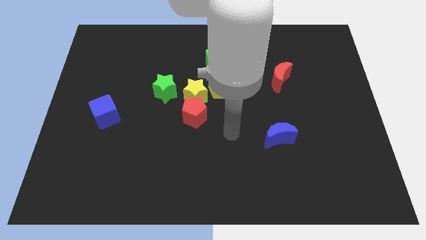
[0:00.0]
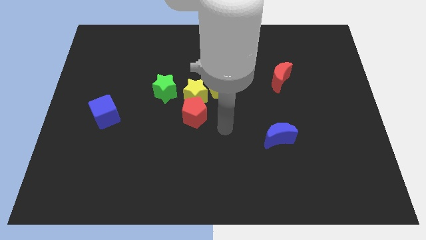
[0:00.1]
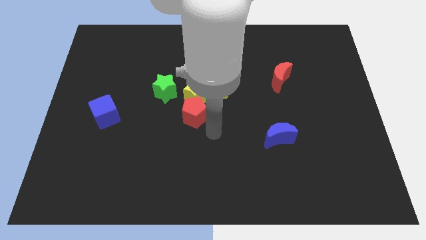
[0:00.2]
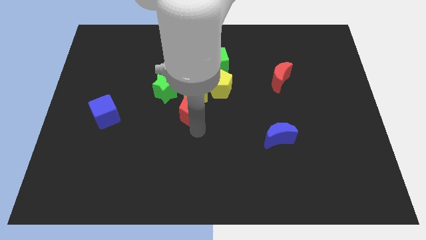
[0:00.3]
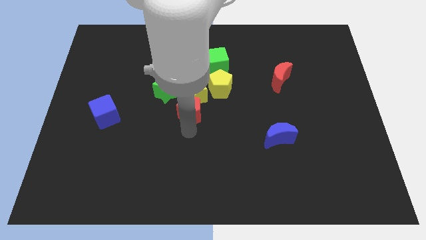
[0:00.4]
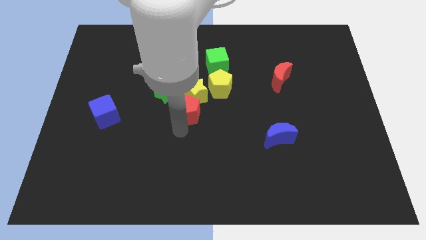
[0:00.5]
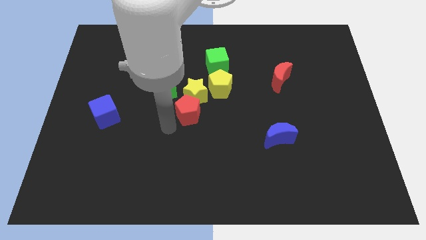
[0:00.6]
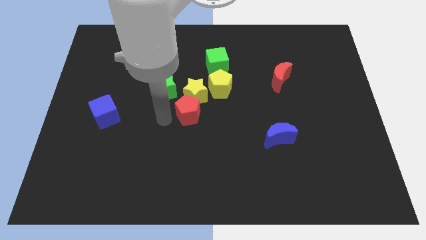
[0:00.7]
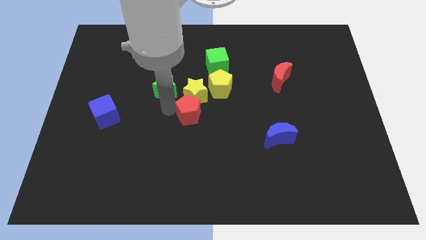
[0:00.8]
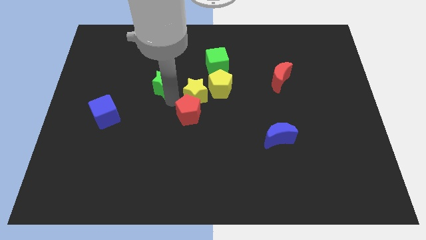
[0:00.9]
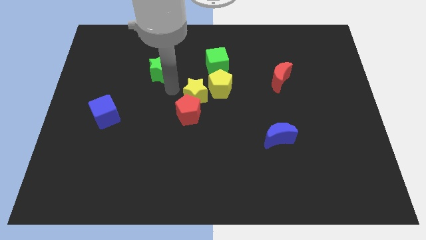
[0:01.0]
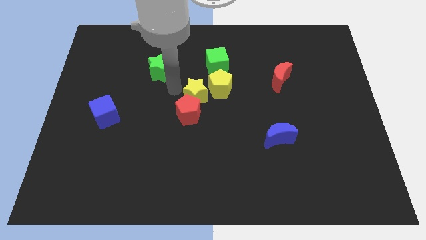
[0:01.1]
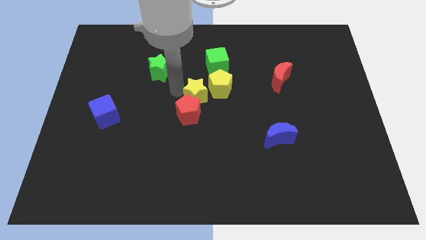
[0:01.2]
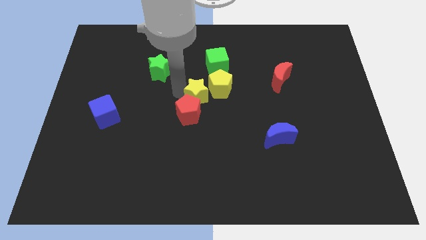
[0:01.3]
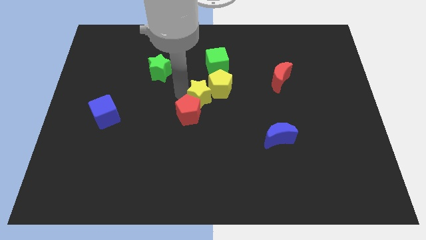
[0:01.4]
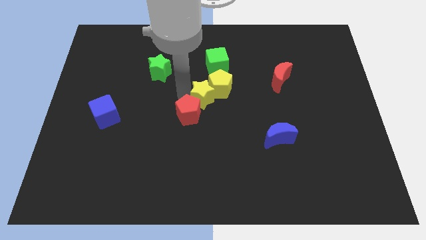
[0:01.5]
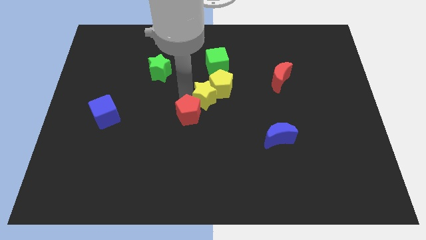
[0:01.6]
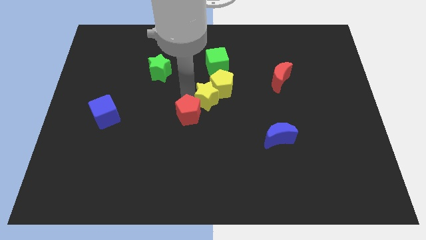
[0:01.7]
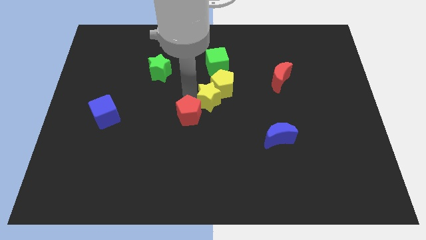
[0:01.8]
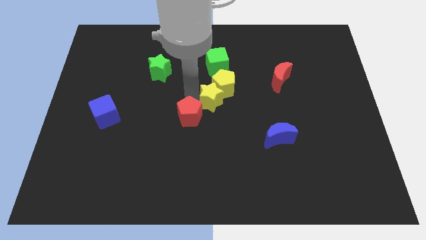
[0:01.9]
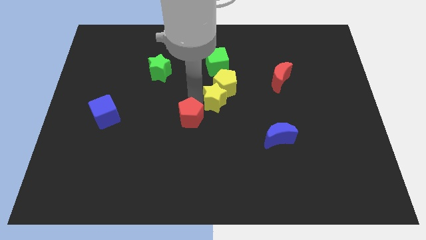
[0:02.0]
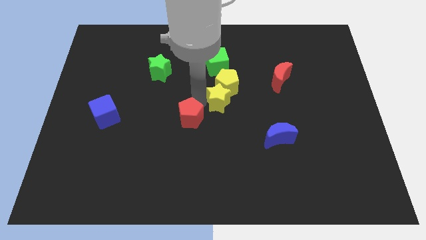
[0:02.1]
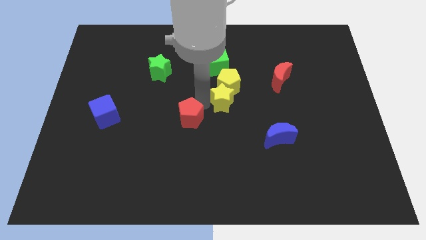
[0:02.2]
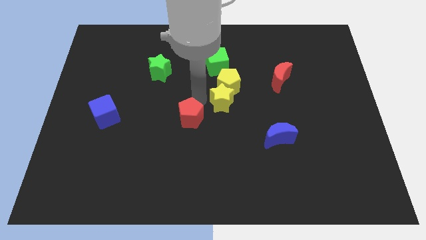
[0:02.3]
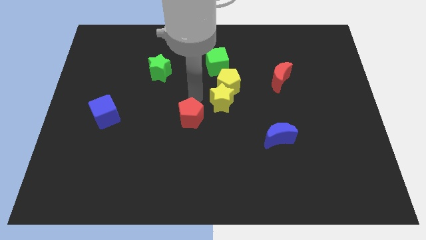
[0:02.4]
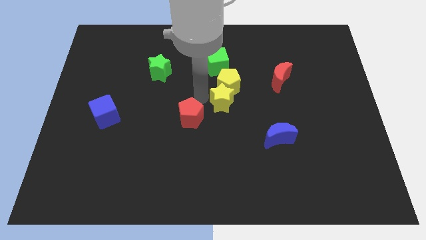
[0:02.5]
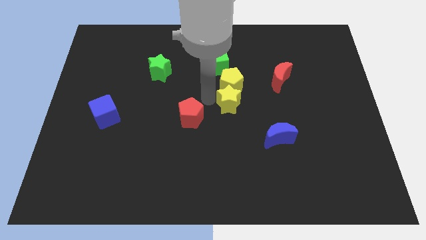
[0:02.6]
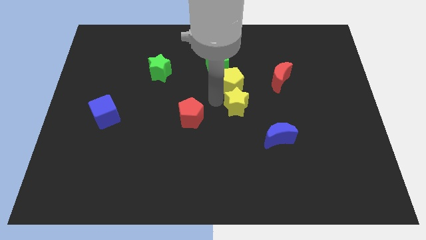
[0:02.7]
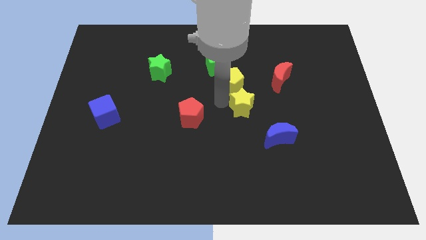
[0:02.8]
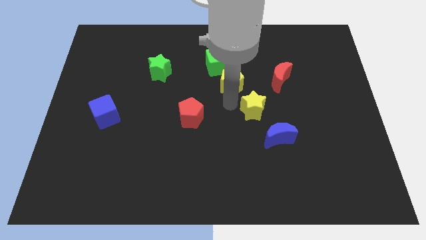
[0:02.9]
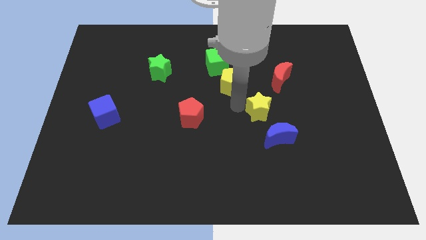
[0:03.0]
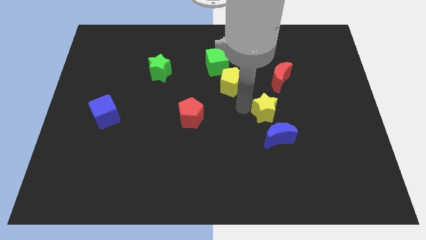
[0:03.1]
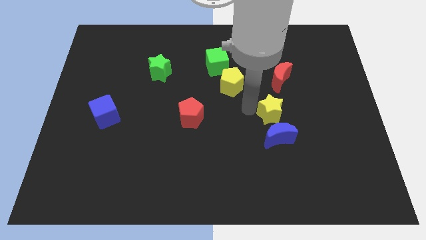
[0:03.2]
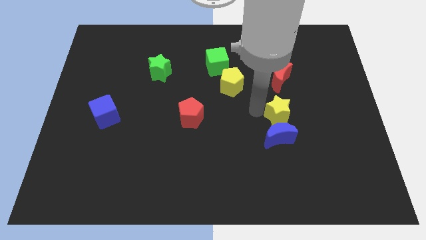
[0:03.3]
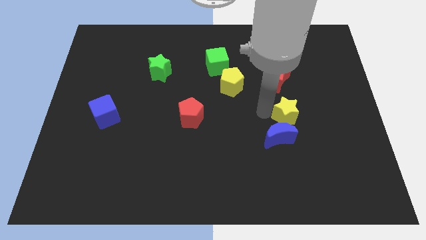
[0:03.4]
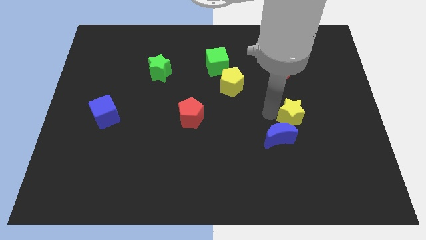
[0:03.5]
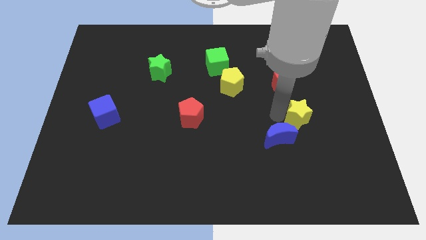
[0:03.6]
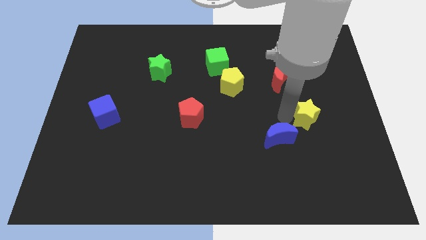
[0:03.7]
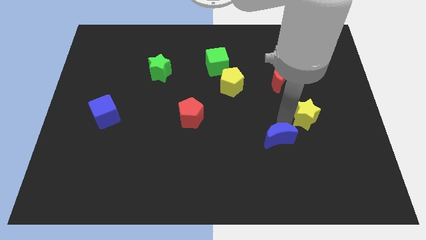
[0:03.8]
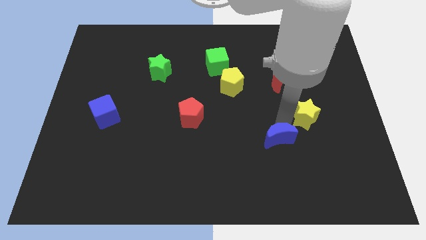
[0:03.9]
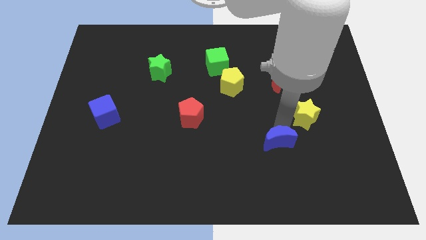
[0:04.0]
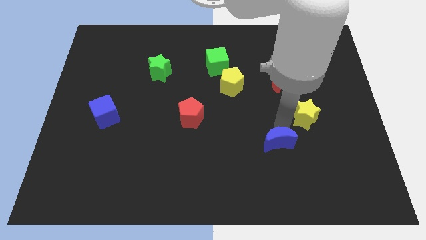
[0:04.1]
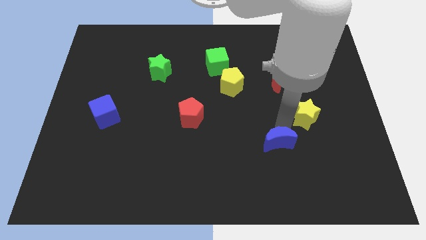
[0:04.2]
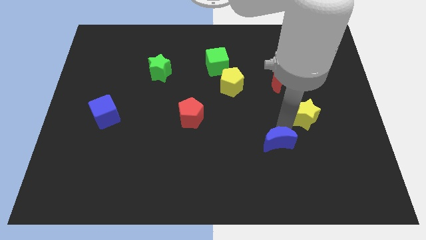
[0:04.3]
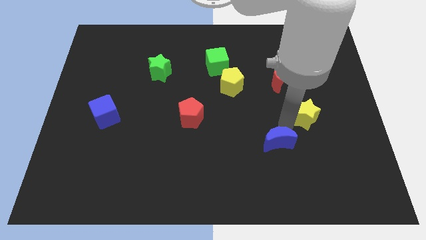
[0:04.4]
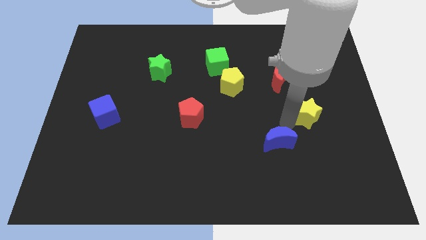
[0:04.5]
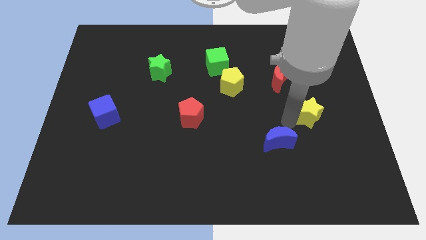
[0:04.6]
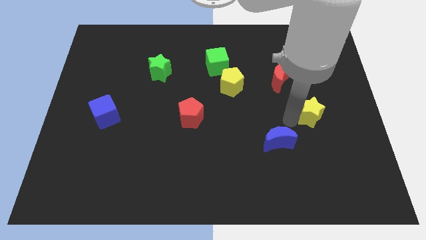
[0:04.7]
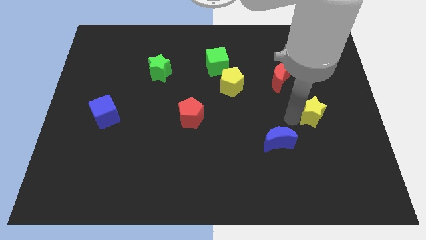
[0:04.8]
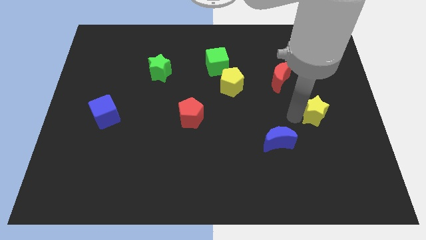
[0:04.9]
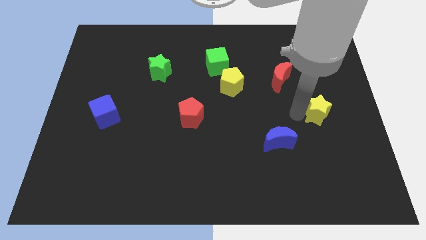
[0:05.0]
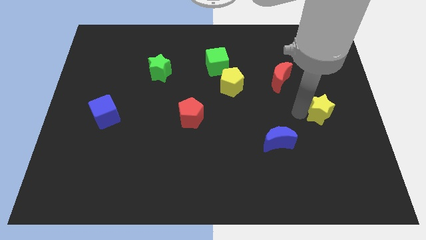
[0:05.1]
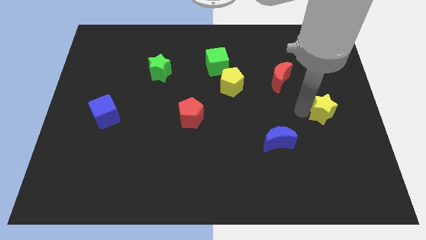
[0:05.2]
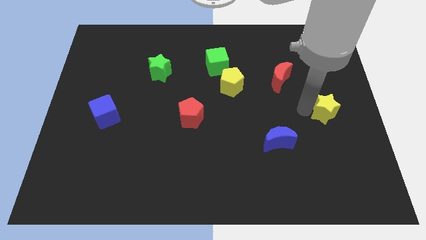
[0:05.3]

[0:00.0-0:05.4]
push the yellow star to the right side of the board

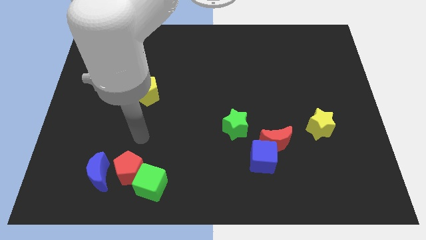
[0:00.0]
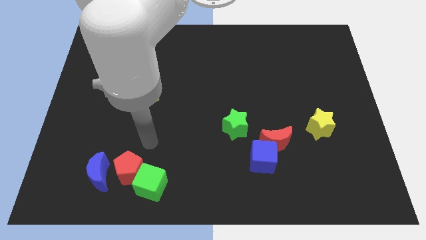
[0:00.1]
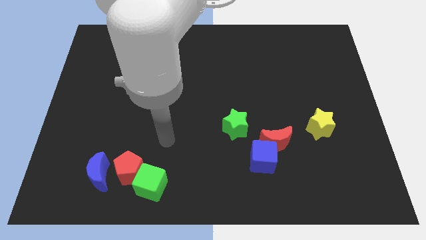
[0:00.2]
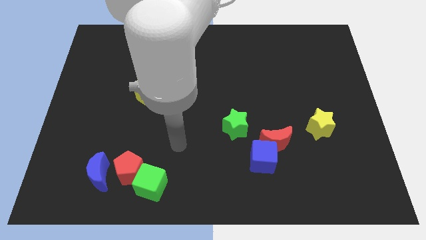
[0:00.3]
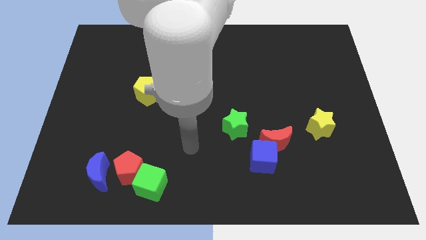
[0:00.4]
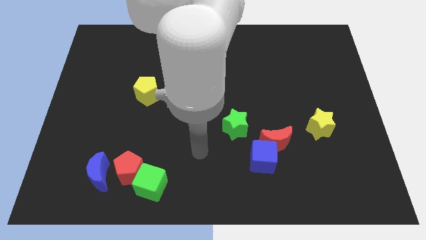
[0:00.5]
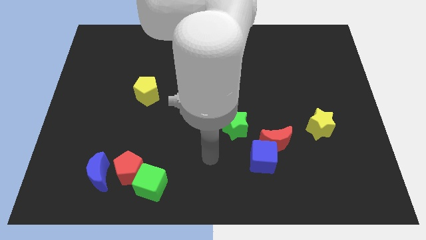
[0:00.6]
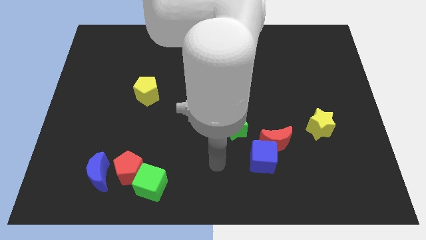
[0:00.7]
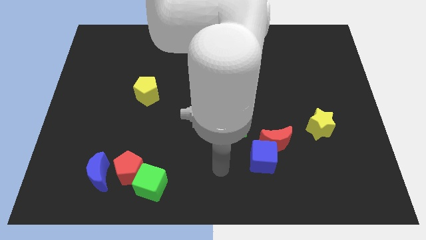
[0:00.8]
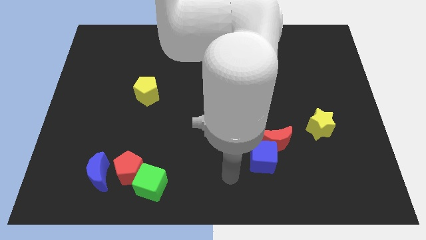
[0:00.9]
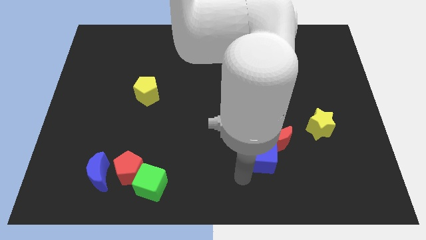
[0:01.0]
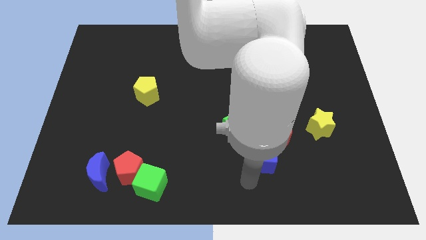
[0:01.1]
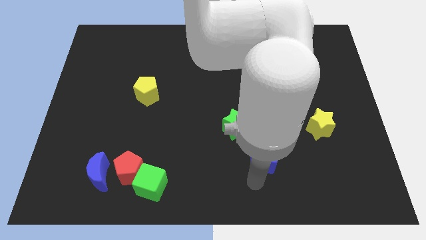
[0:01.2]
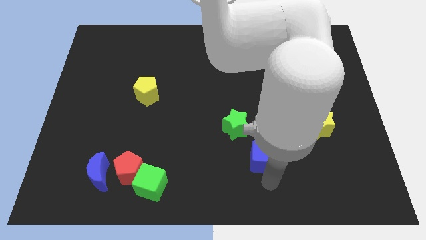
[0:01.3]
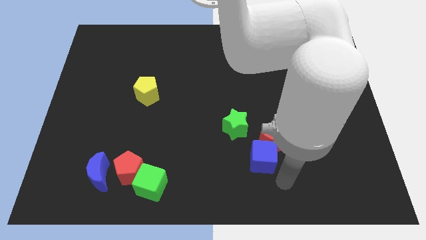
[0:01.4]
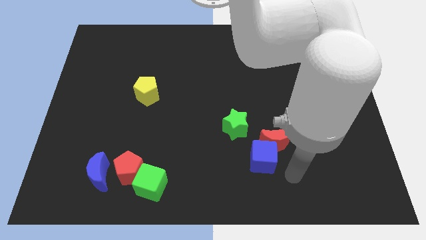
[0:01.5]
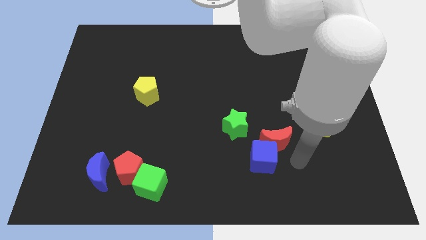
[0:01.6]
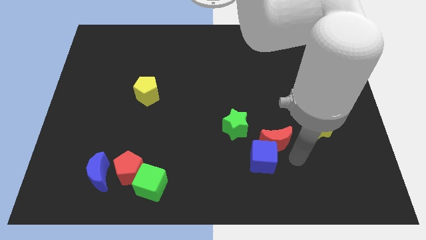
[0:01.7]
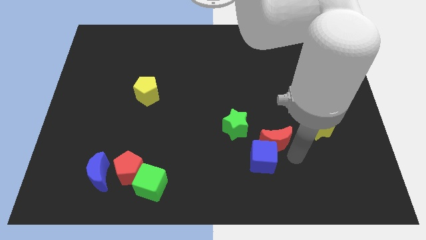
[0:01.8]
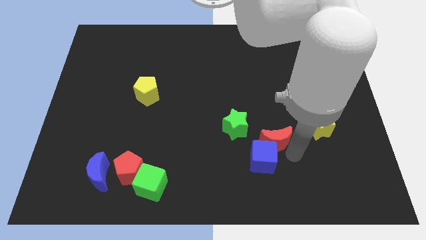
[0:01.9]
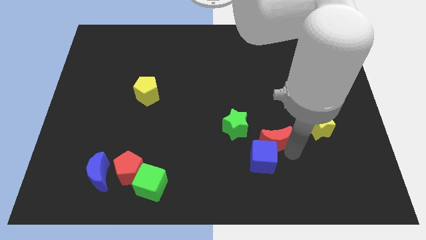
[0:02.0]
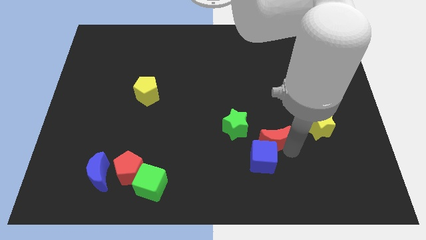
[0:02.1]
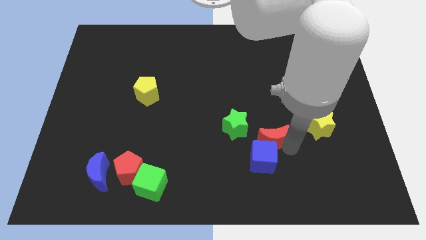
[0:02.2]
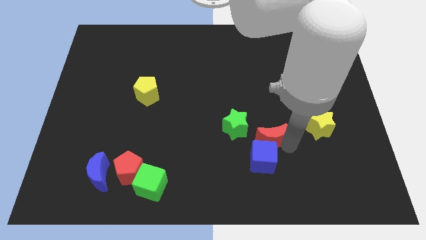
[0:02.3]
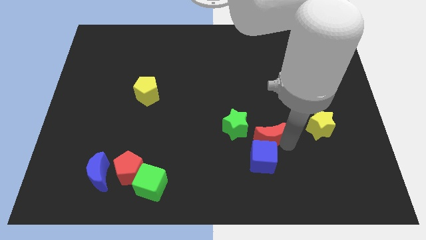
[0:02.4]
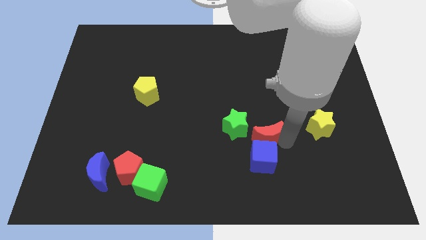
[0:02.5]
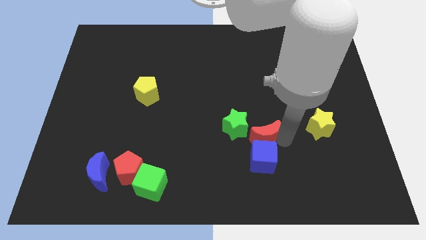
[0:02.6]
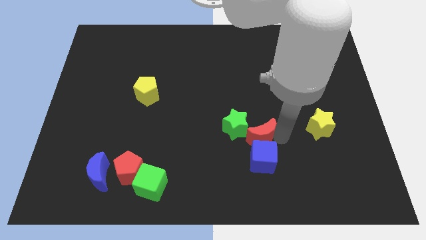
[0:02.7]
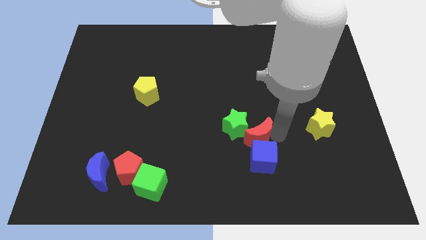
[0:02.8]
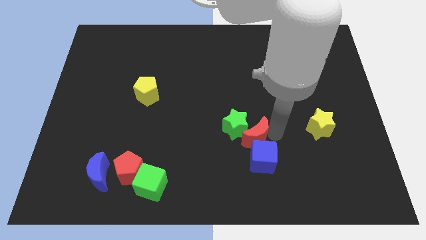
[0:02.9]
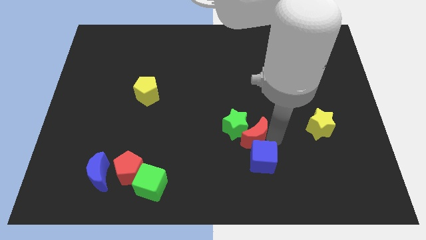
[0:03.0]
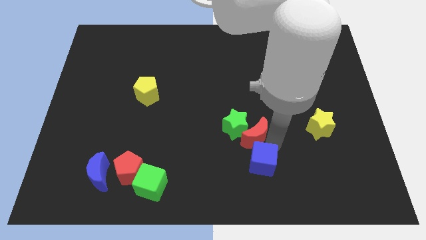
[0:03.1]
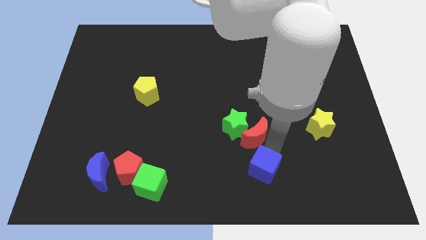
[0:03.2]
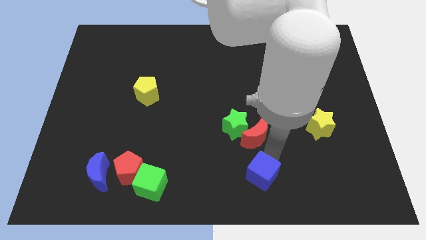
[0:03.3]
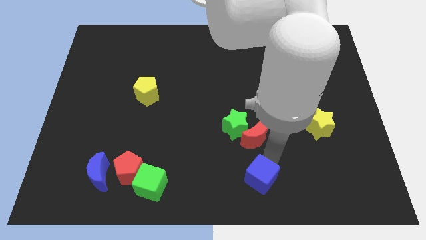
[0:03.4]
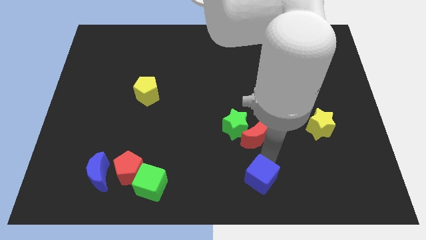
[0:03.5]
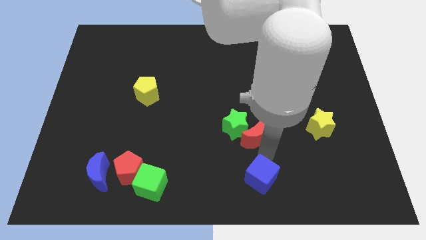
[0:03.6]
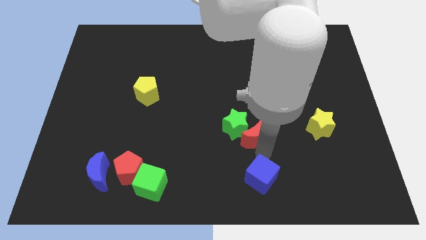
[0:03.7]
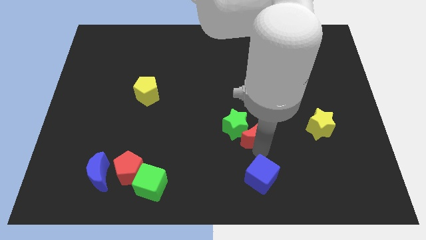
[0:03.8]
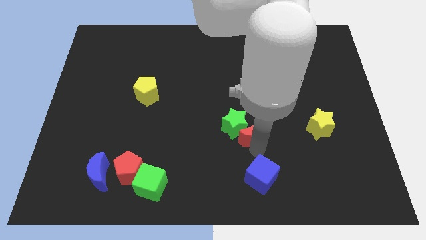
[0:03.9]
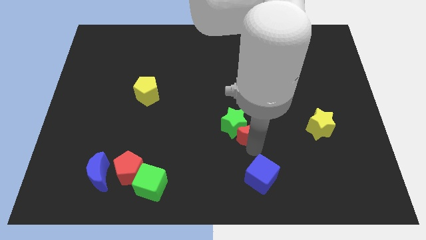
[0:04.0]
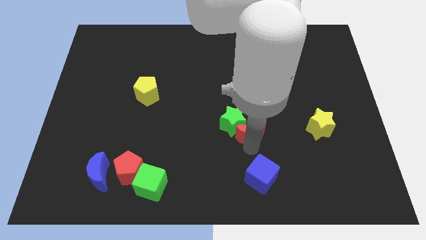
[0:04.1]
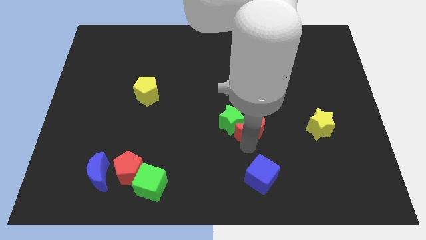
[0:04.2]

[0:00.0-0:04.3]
push the red moon to the center
